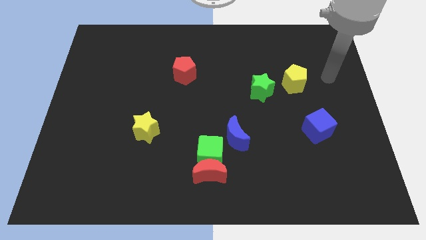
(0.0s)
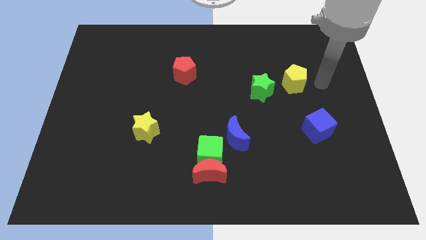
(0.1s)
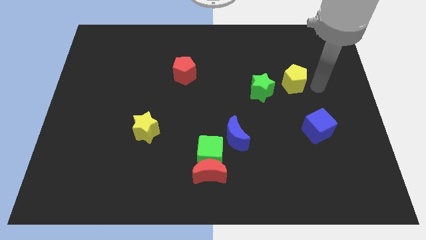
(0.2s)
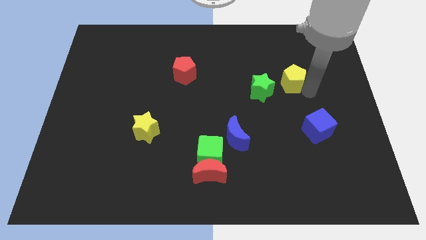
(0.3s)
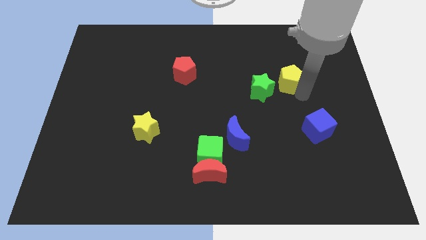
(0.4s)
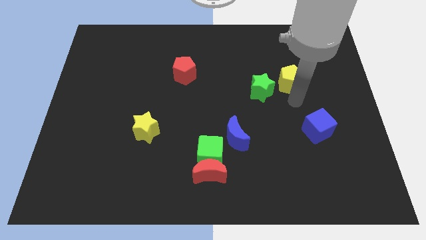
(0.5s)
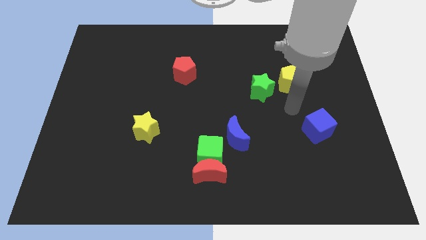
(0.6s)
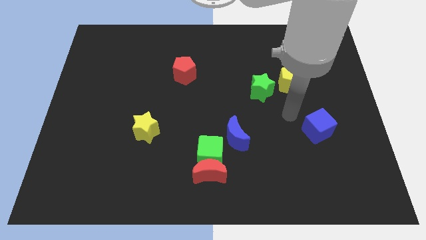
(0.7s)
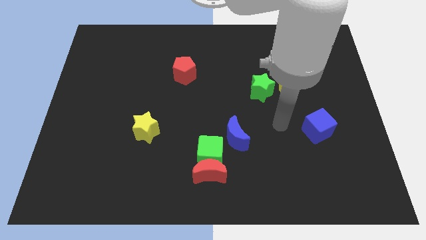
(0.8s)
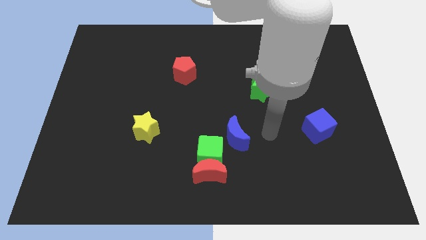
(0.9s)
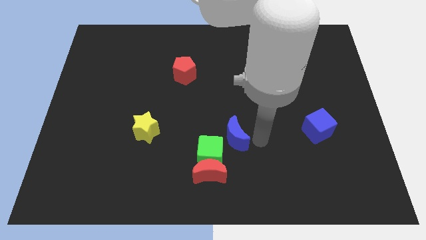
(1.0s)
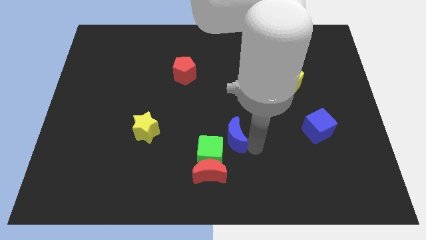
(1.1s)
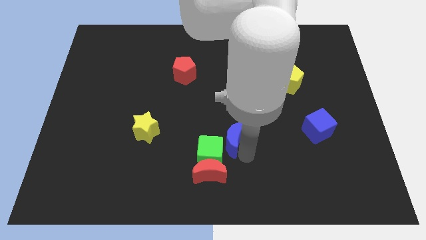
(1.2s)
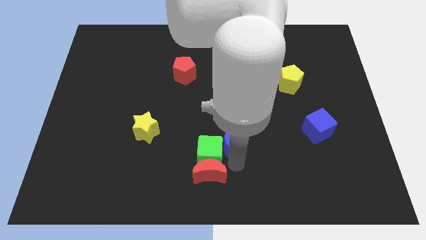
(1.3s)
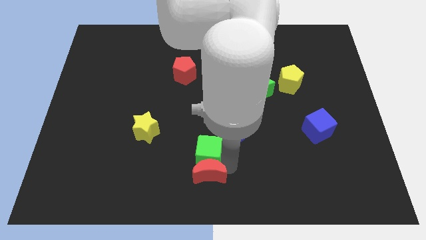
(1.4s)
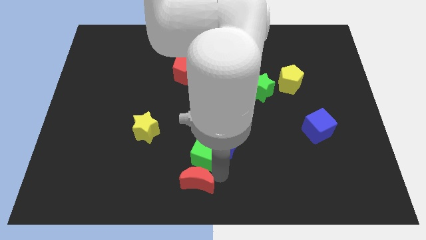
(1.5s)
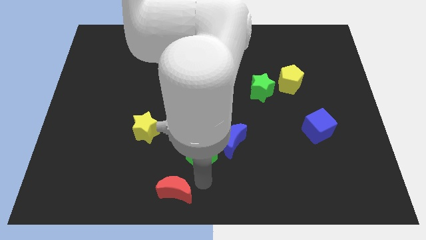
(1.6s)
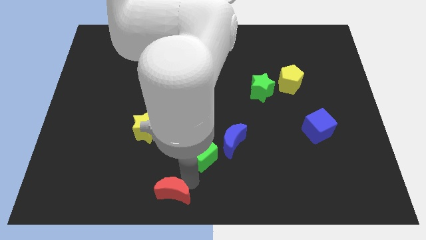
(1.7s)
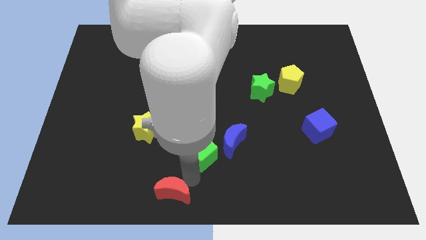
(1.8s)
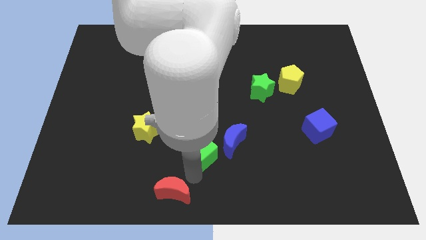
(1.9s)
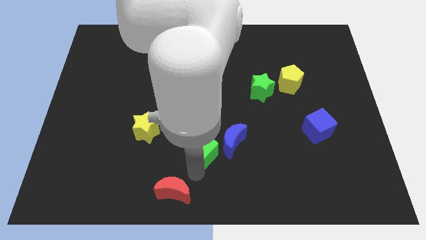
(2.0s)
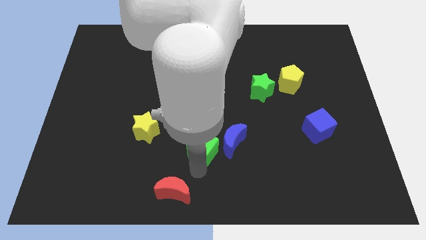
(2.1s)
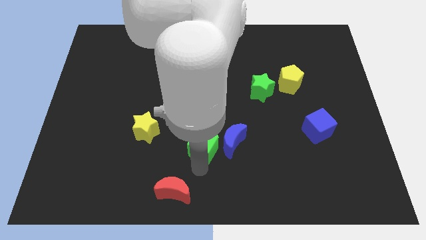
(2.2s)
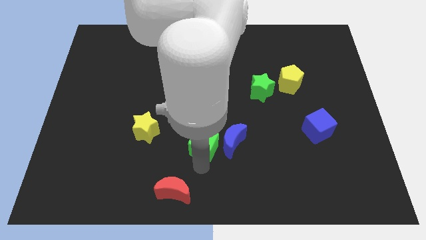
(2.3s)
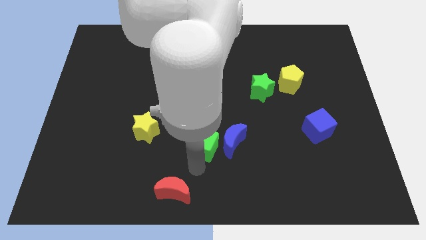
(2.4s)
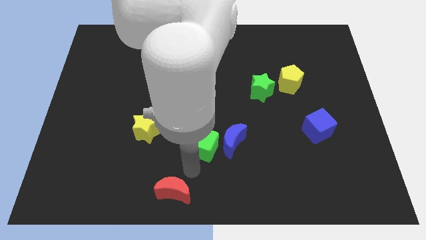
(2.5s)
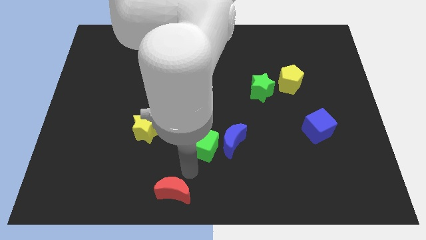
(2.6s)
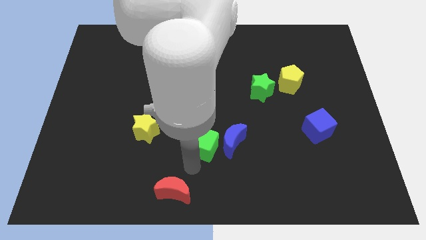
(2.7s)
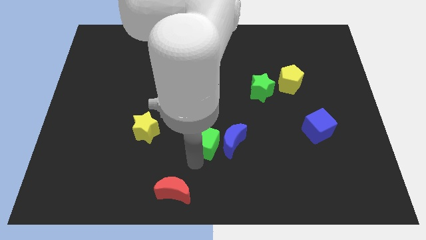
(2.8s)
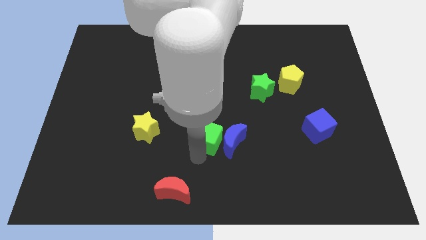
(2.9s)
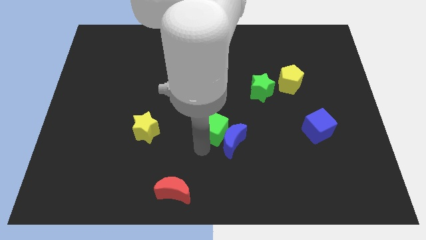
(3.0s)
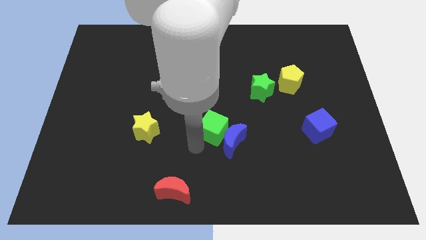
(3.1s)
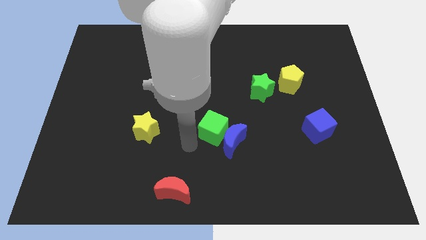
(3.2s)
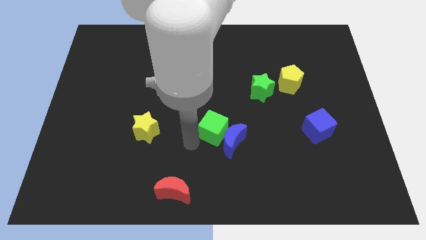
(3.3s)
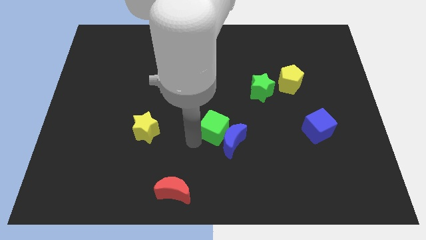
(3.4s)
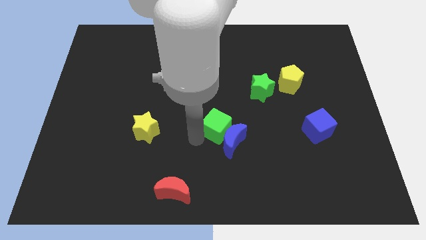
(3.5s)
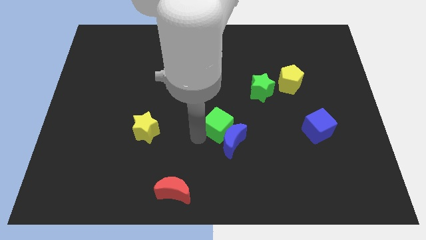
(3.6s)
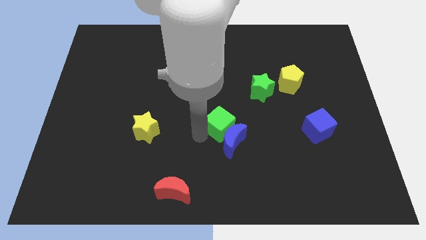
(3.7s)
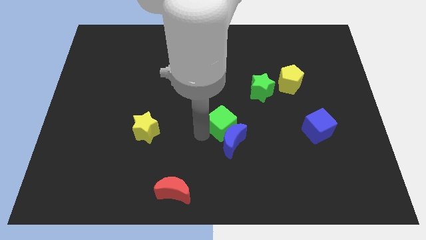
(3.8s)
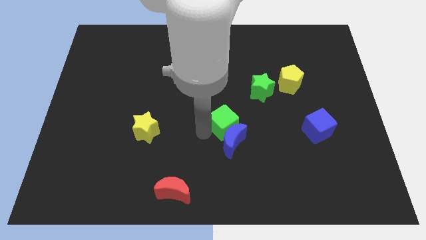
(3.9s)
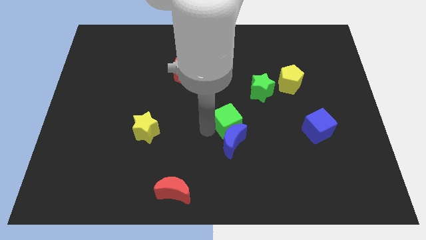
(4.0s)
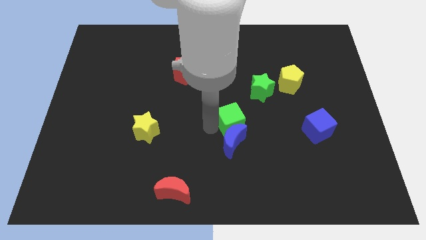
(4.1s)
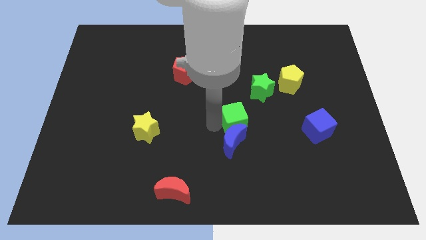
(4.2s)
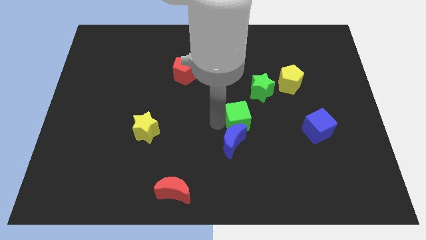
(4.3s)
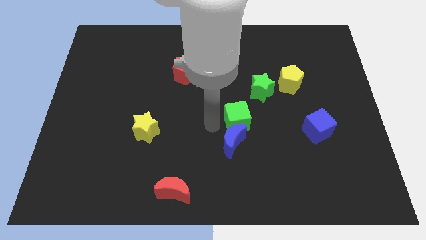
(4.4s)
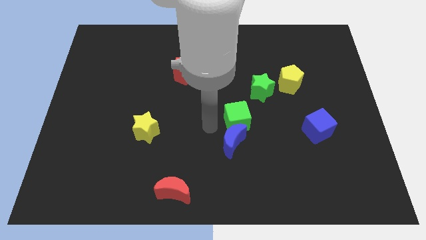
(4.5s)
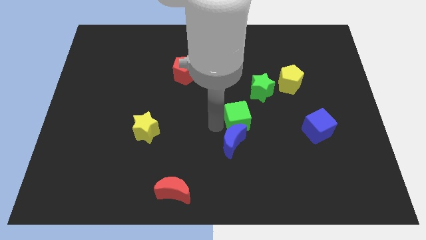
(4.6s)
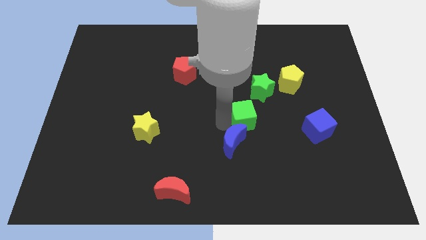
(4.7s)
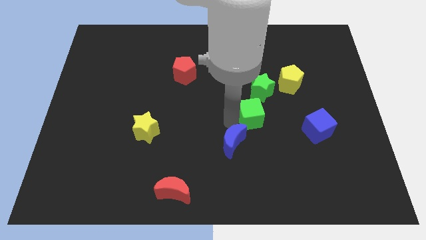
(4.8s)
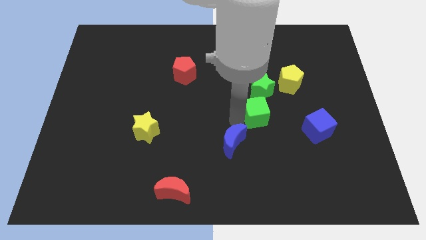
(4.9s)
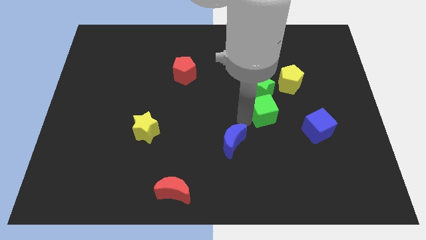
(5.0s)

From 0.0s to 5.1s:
push the green cube to the bottom left of the yellow pentagon

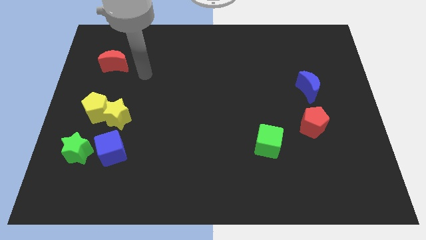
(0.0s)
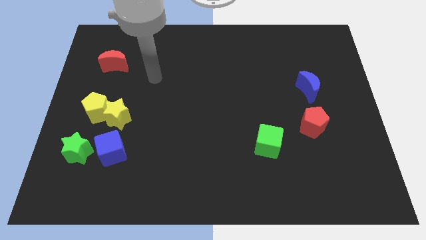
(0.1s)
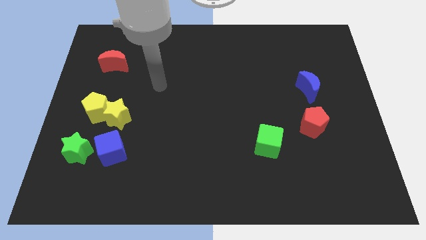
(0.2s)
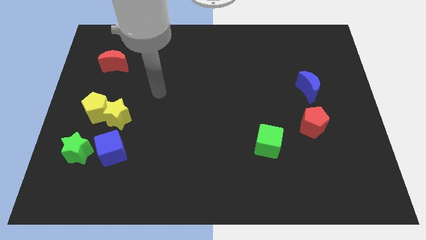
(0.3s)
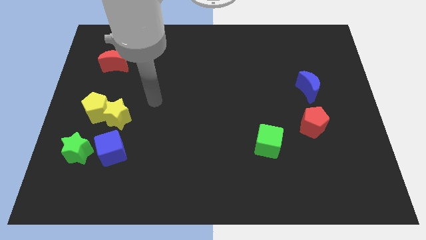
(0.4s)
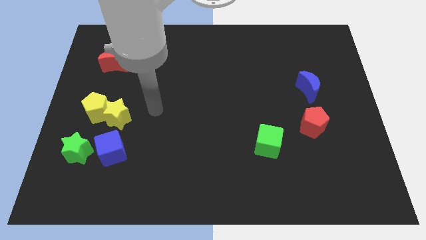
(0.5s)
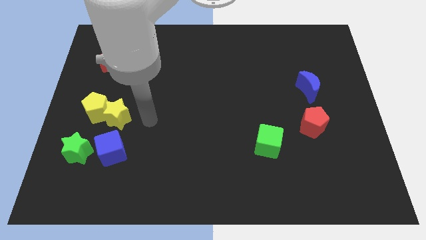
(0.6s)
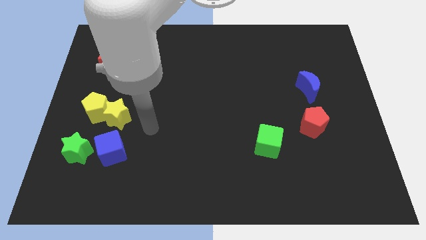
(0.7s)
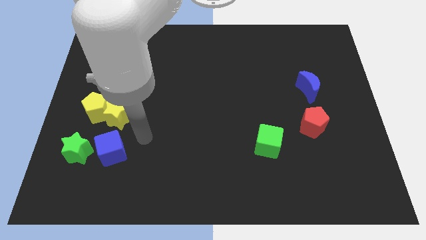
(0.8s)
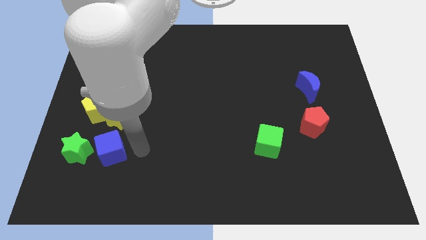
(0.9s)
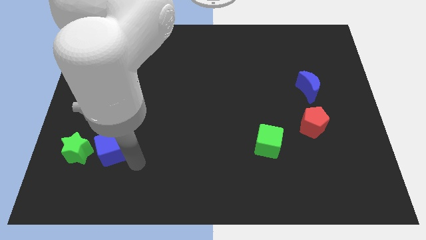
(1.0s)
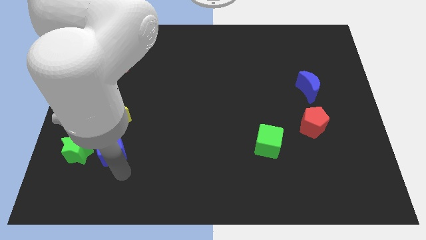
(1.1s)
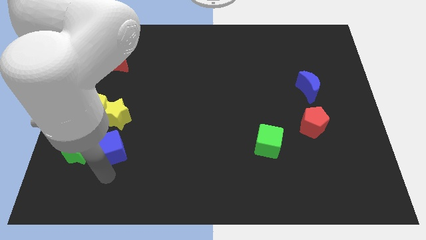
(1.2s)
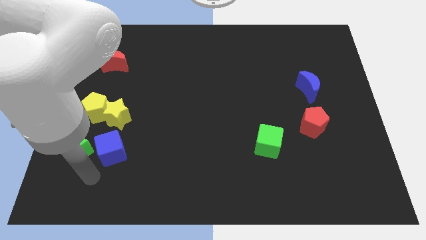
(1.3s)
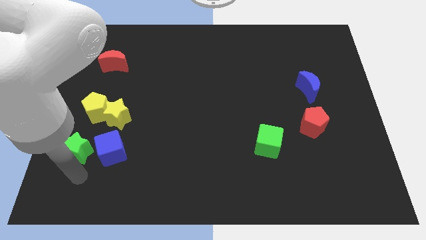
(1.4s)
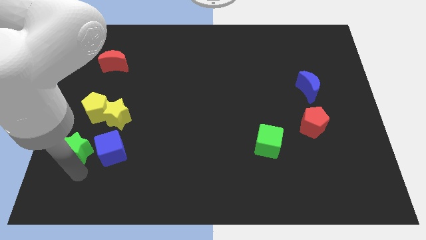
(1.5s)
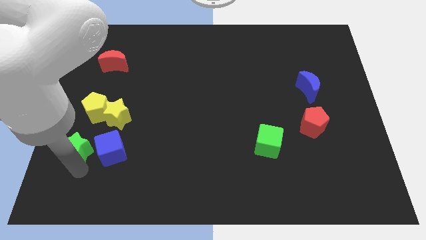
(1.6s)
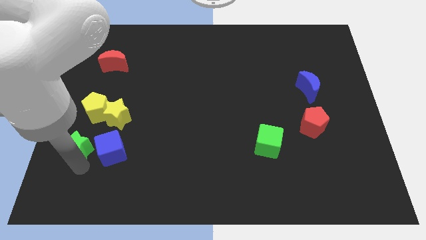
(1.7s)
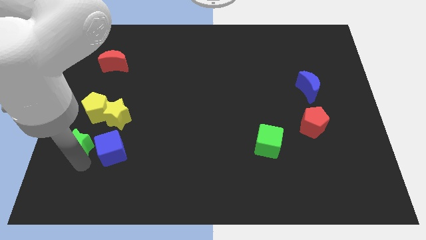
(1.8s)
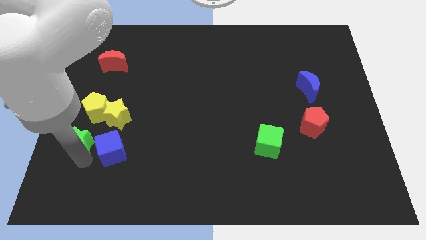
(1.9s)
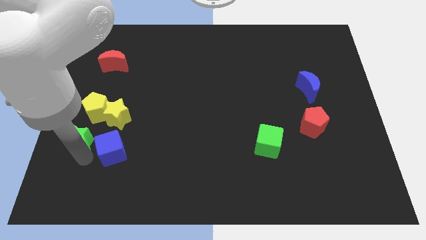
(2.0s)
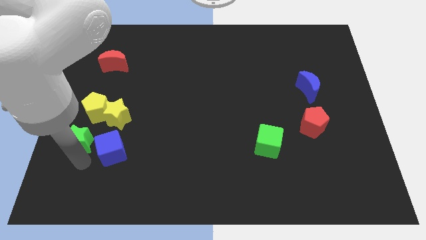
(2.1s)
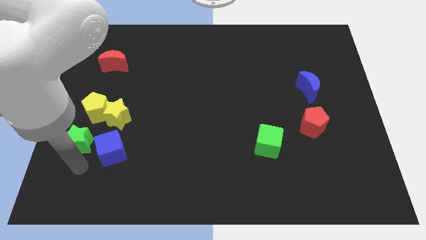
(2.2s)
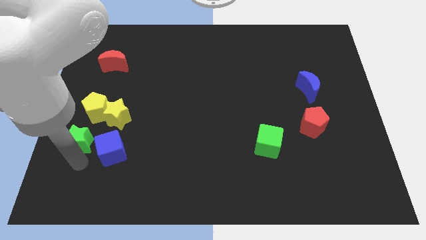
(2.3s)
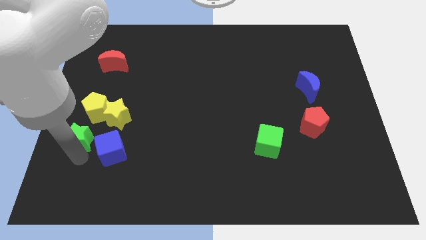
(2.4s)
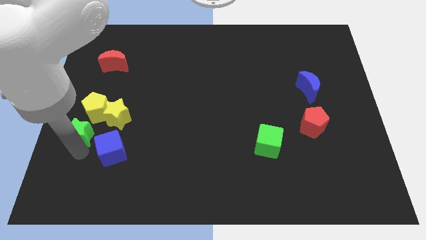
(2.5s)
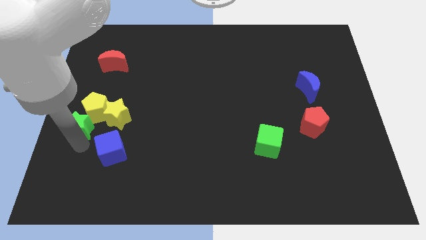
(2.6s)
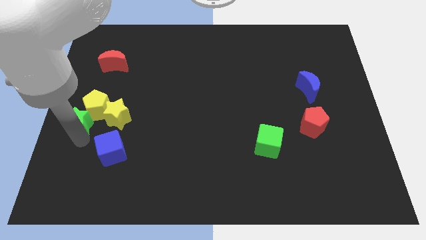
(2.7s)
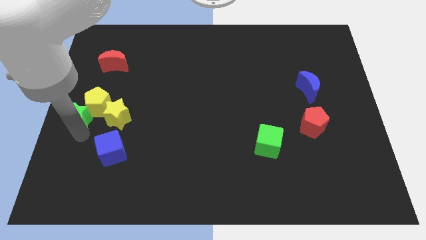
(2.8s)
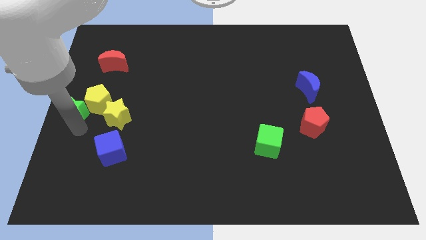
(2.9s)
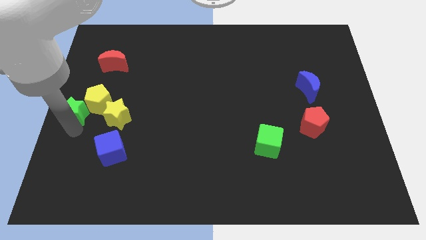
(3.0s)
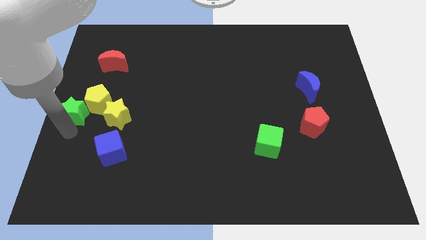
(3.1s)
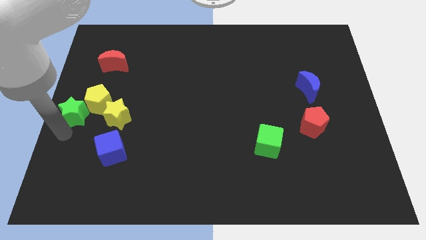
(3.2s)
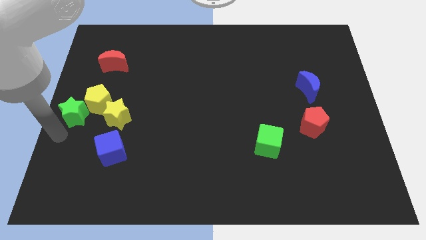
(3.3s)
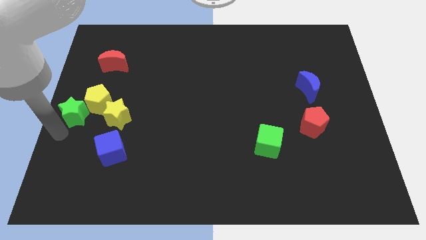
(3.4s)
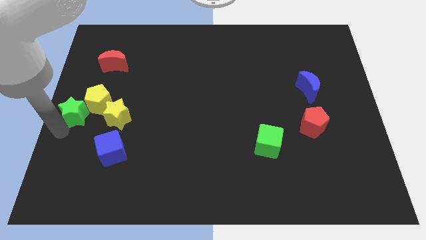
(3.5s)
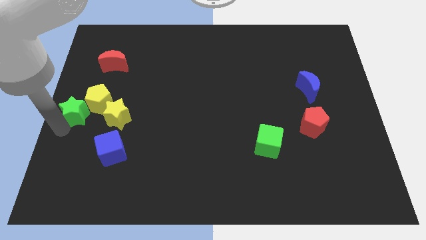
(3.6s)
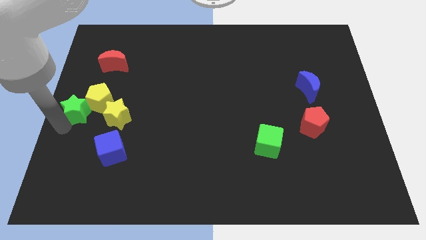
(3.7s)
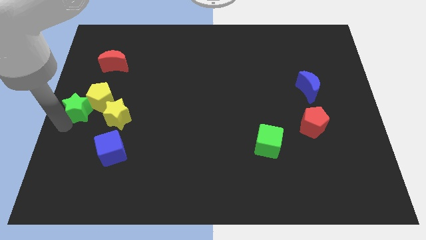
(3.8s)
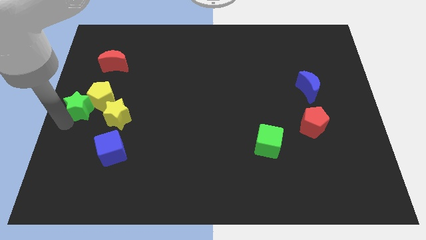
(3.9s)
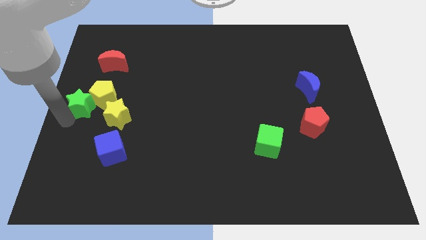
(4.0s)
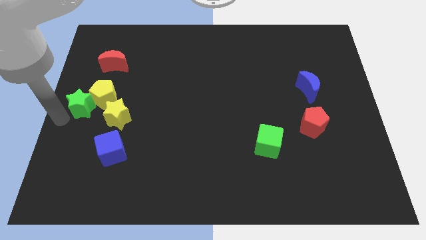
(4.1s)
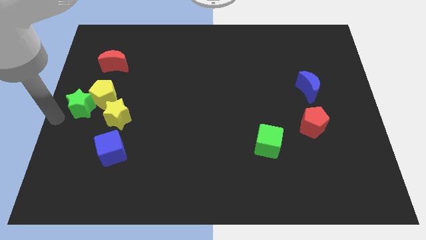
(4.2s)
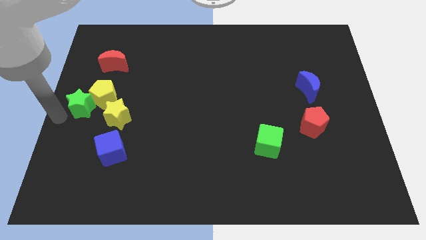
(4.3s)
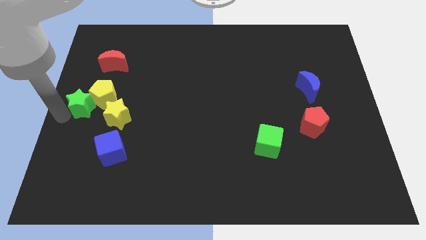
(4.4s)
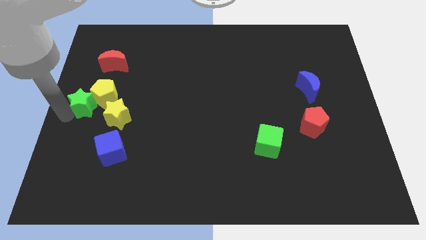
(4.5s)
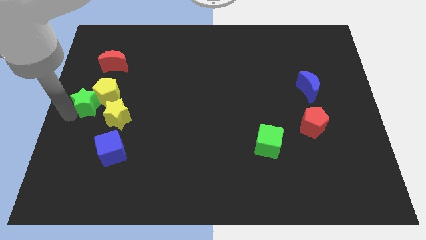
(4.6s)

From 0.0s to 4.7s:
push the green star to the bottom of the red moon
